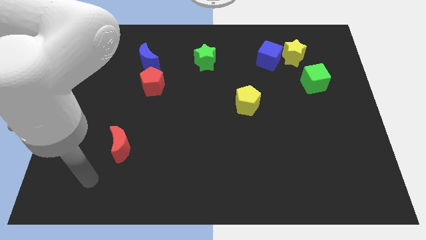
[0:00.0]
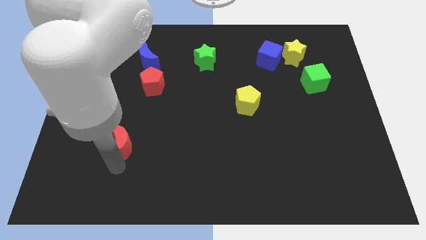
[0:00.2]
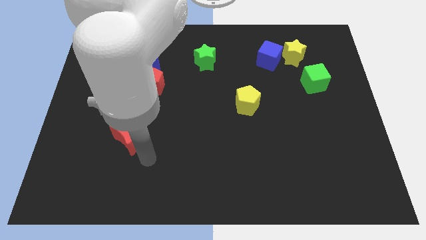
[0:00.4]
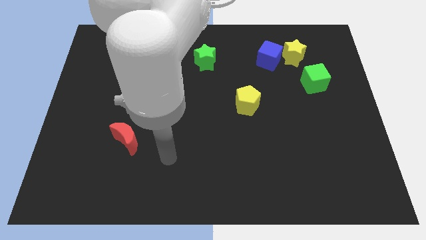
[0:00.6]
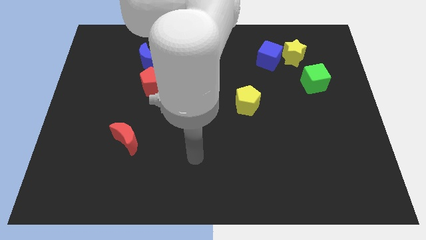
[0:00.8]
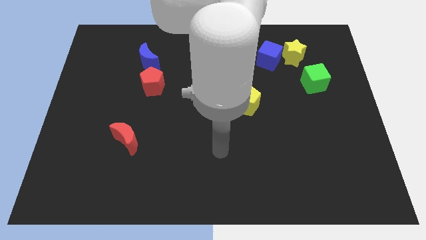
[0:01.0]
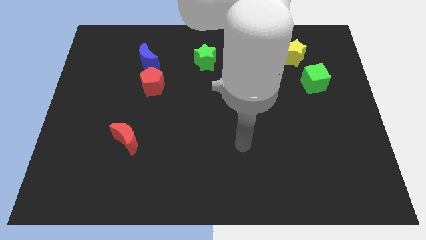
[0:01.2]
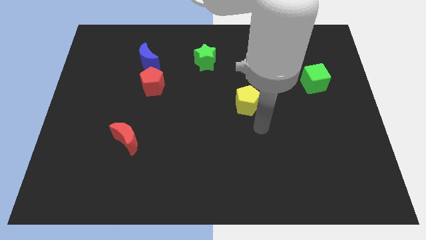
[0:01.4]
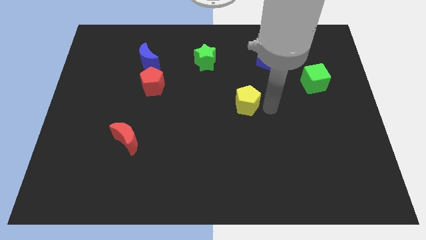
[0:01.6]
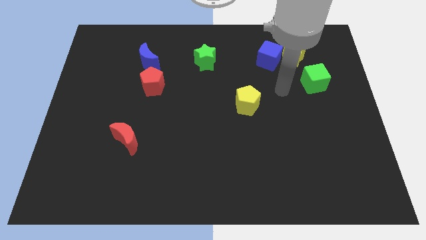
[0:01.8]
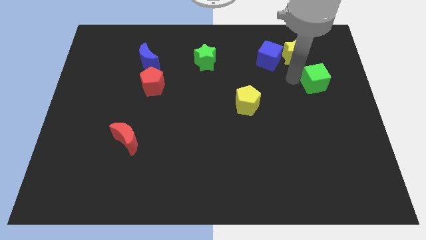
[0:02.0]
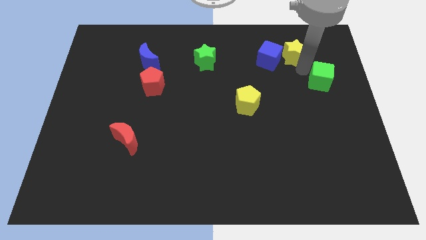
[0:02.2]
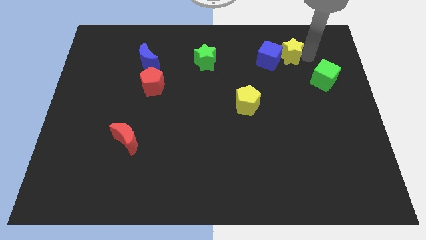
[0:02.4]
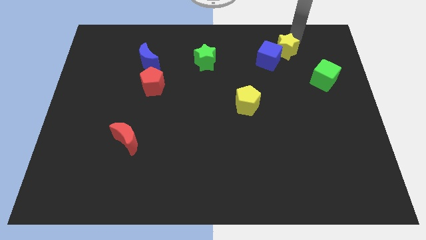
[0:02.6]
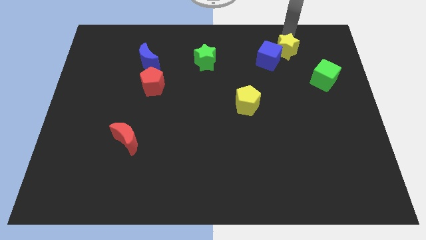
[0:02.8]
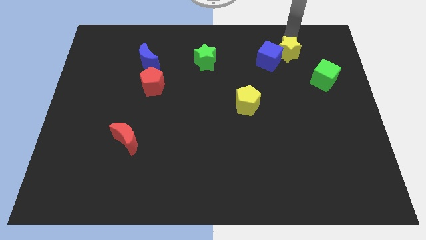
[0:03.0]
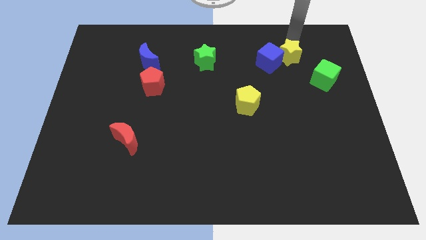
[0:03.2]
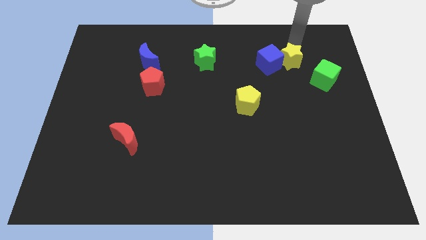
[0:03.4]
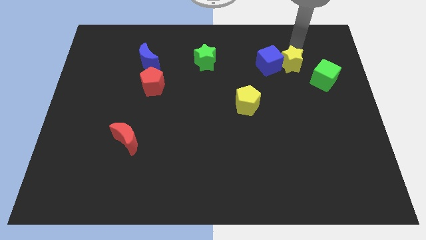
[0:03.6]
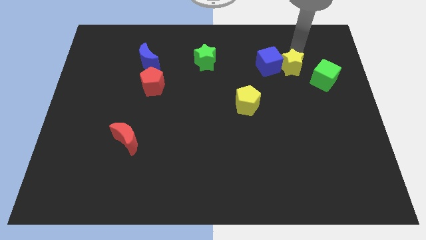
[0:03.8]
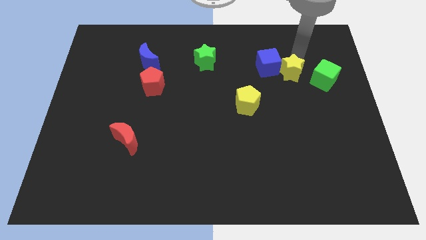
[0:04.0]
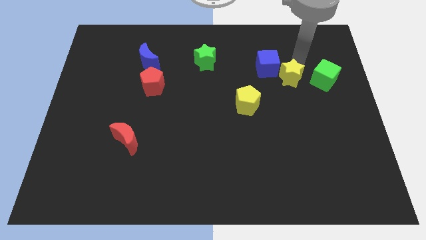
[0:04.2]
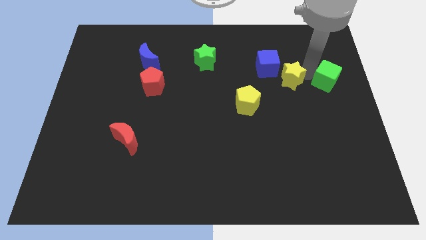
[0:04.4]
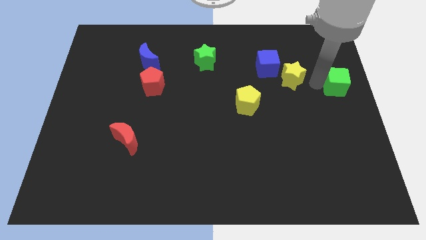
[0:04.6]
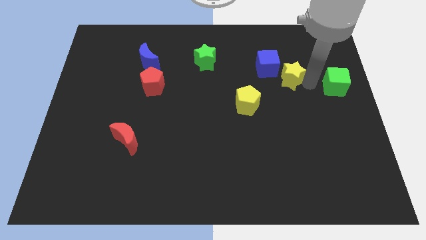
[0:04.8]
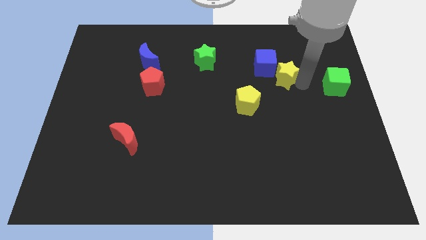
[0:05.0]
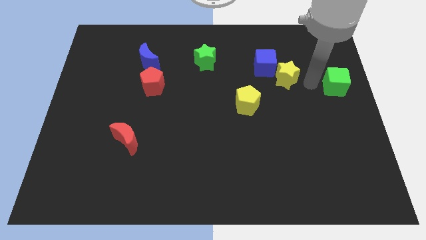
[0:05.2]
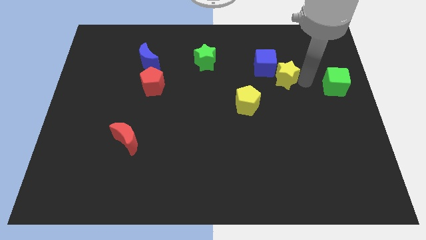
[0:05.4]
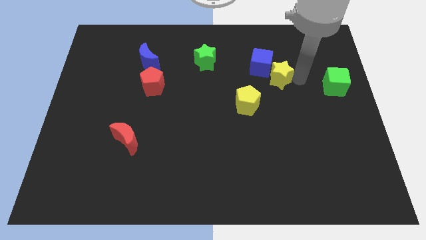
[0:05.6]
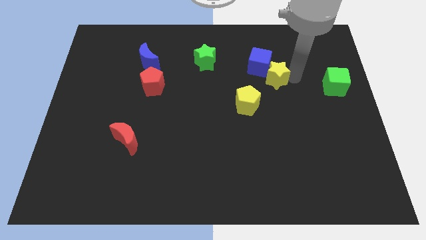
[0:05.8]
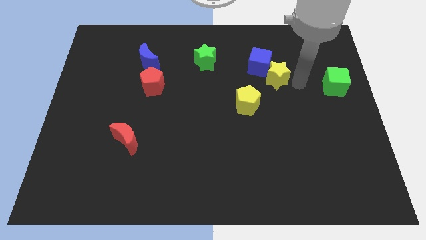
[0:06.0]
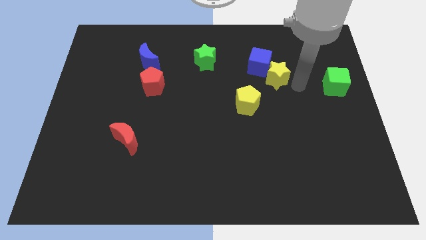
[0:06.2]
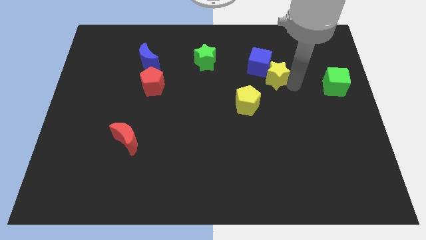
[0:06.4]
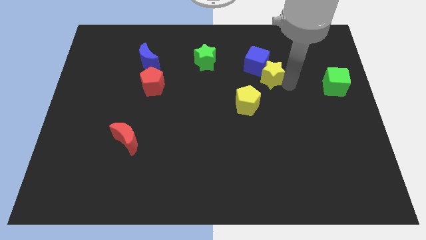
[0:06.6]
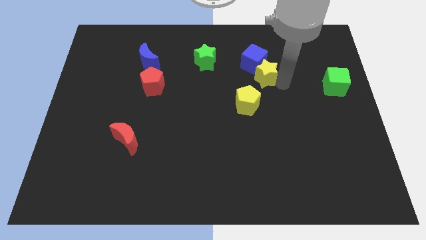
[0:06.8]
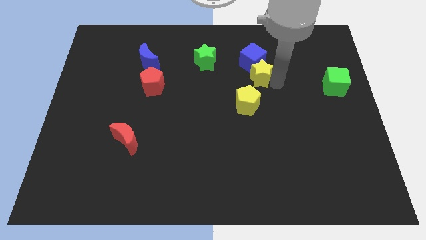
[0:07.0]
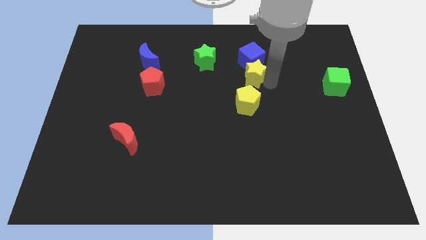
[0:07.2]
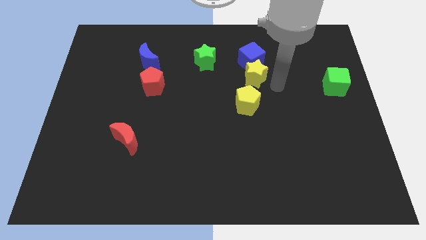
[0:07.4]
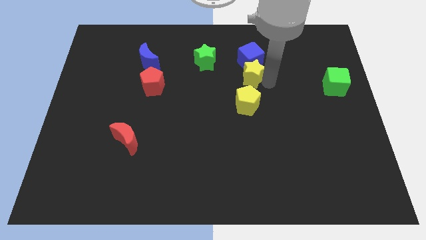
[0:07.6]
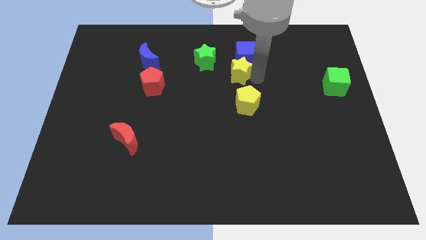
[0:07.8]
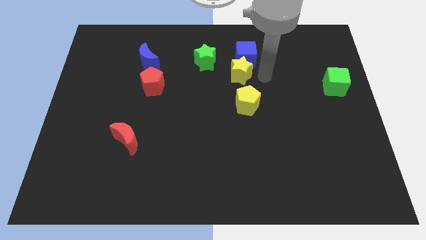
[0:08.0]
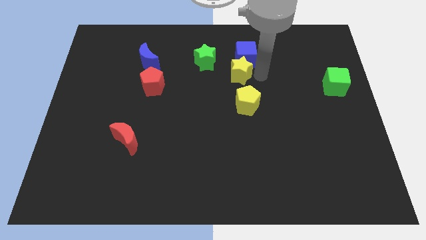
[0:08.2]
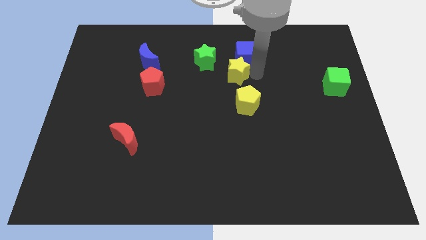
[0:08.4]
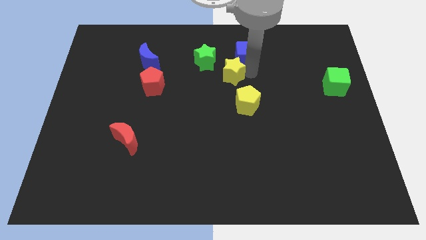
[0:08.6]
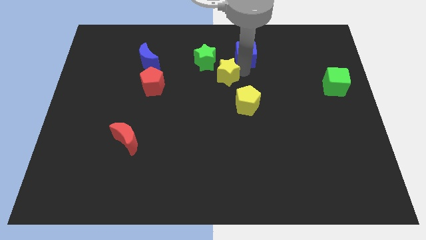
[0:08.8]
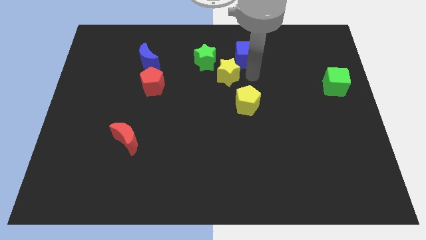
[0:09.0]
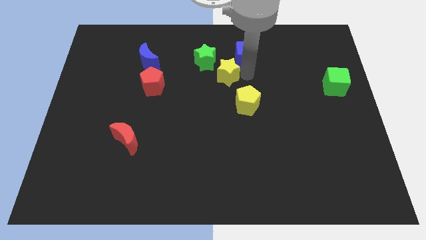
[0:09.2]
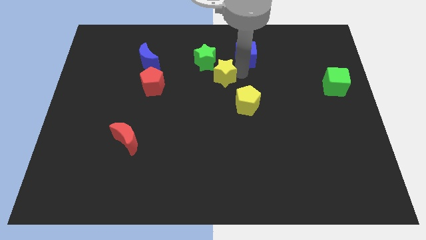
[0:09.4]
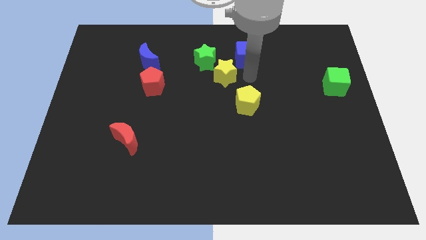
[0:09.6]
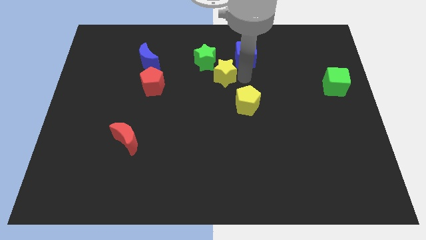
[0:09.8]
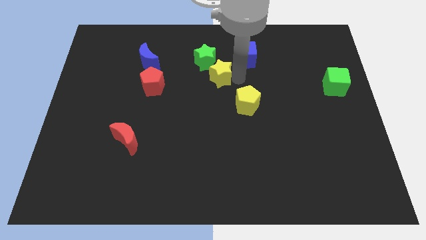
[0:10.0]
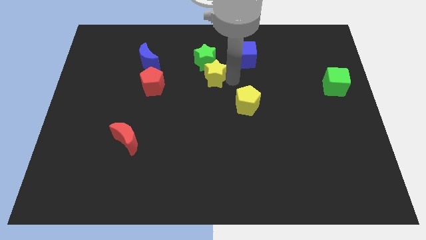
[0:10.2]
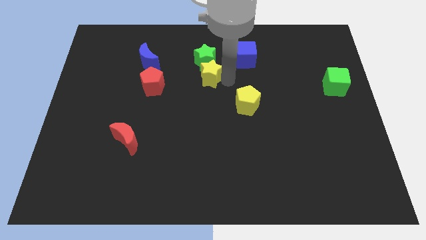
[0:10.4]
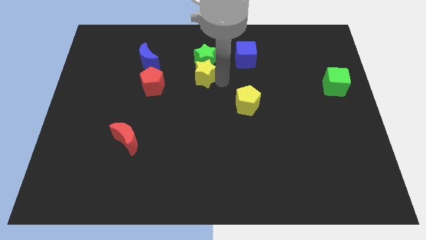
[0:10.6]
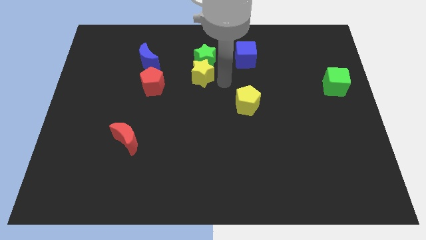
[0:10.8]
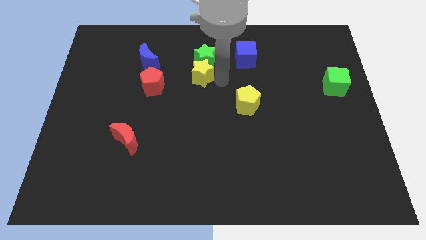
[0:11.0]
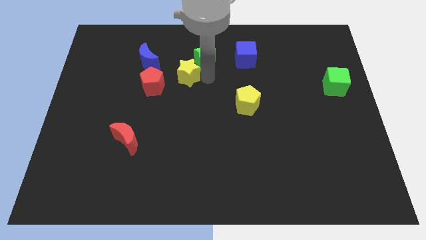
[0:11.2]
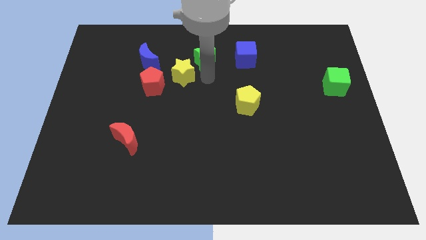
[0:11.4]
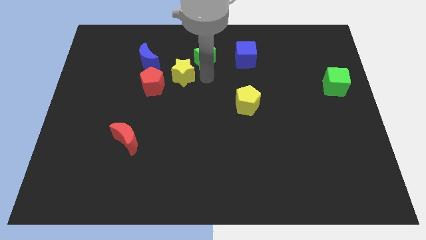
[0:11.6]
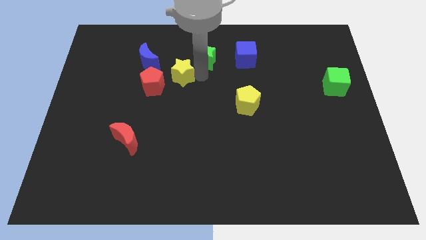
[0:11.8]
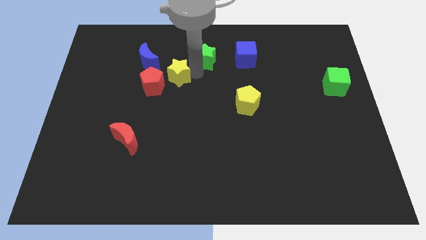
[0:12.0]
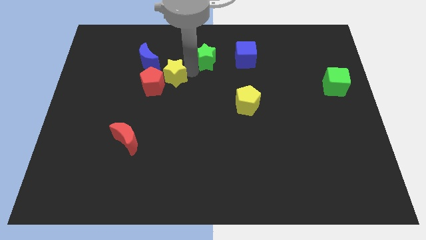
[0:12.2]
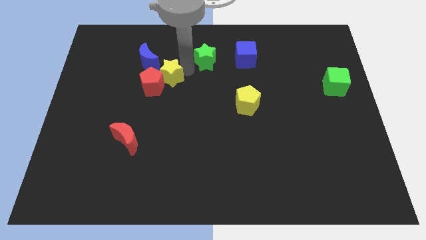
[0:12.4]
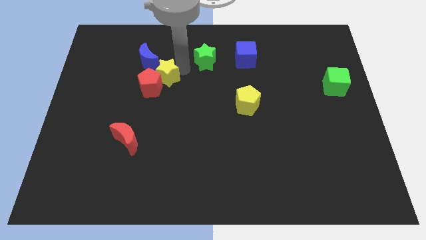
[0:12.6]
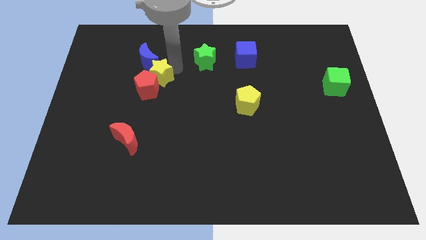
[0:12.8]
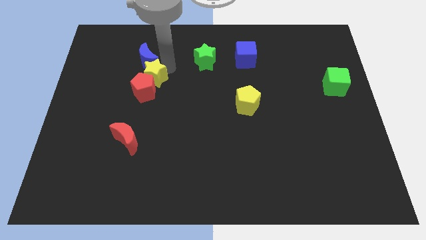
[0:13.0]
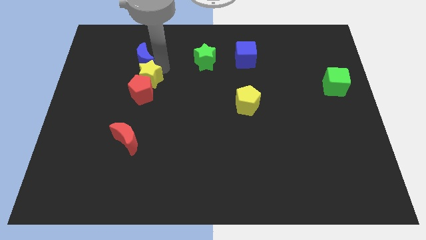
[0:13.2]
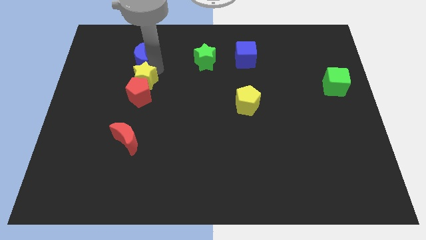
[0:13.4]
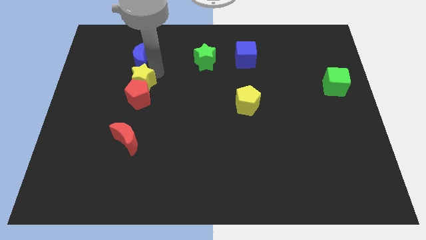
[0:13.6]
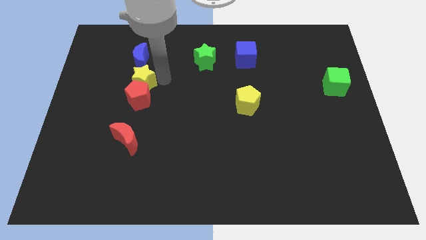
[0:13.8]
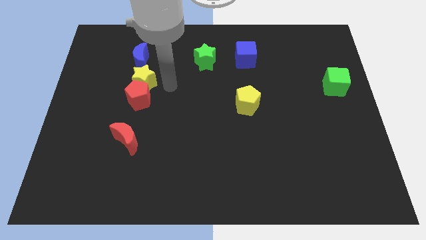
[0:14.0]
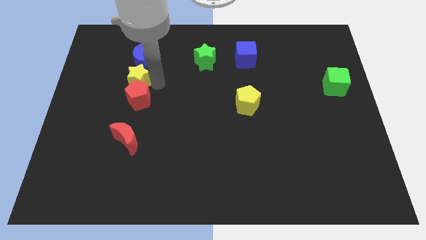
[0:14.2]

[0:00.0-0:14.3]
slide the yellow star diagonally down and to the left of the blue moon
